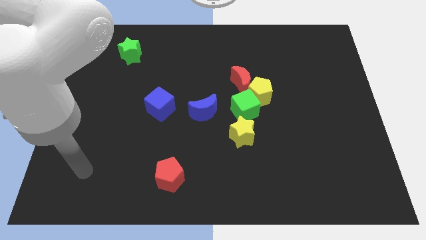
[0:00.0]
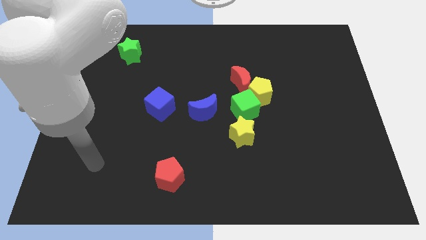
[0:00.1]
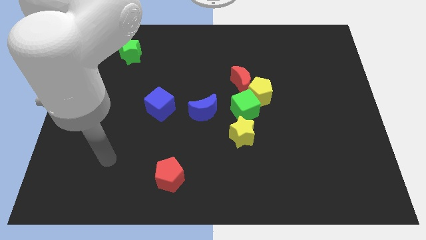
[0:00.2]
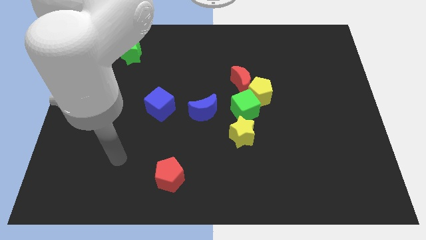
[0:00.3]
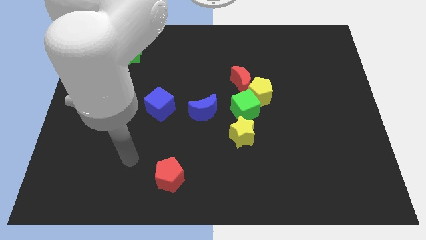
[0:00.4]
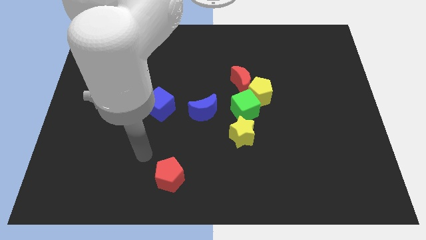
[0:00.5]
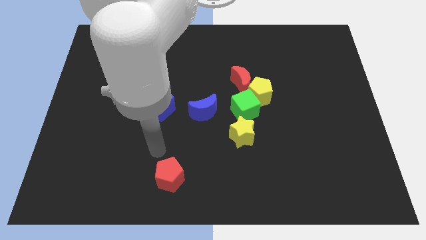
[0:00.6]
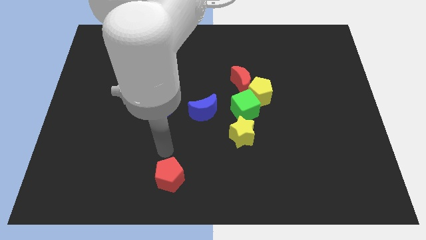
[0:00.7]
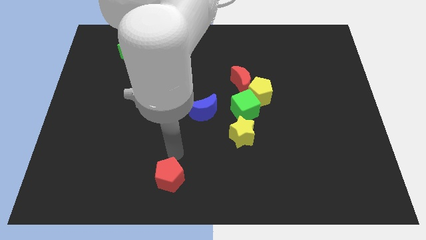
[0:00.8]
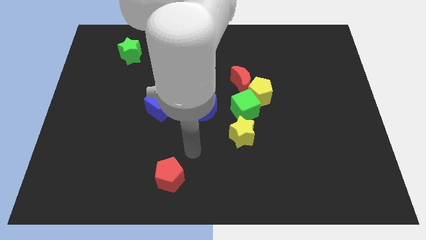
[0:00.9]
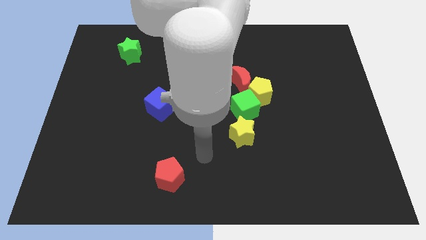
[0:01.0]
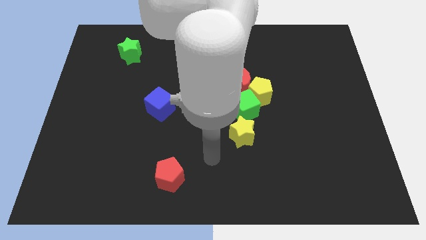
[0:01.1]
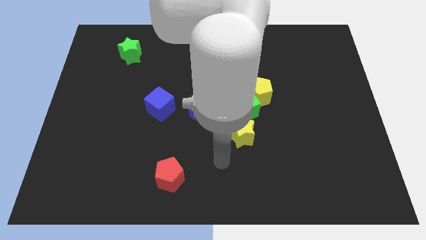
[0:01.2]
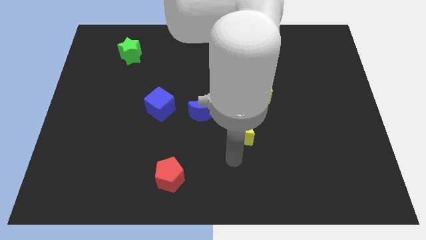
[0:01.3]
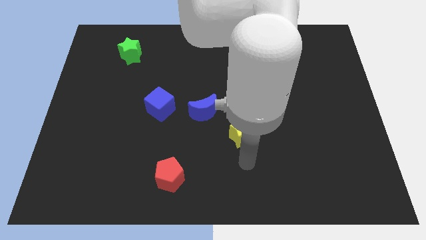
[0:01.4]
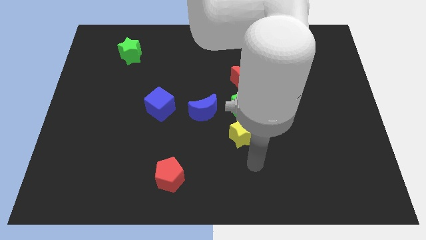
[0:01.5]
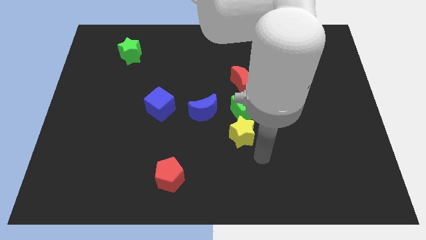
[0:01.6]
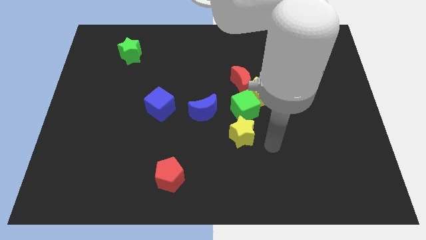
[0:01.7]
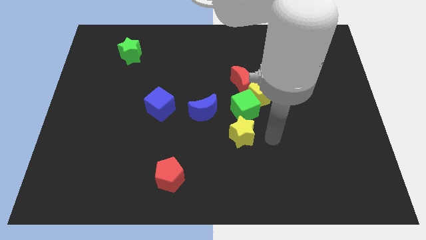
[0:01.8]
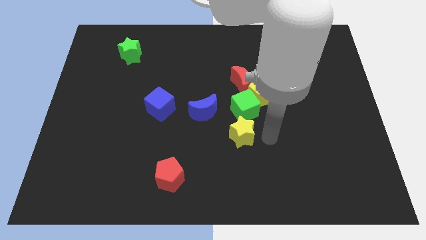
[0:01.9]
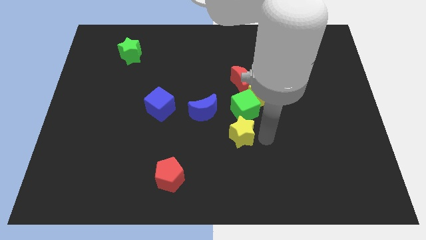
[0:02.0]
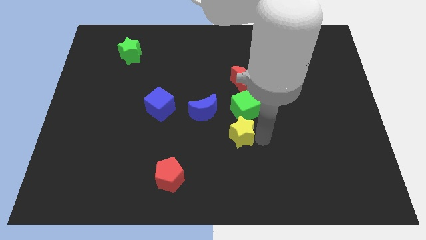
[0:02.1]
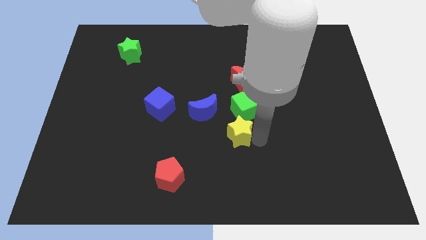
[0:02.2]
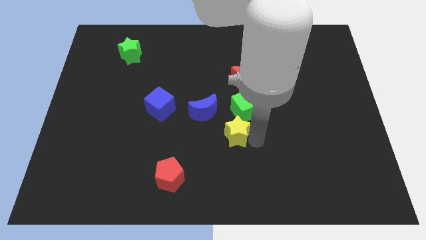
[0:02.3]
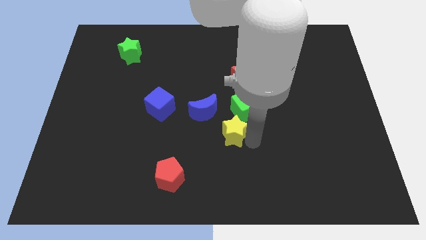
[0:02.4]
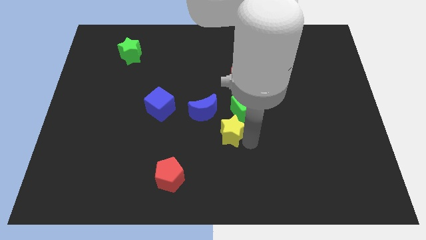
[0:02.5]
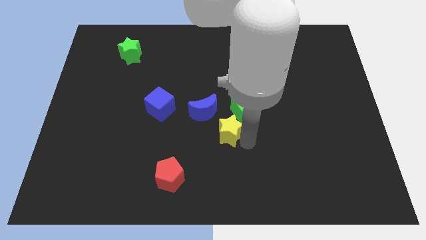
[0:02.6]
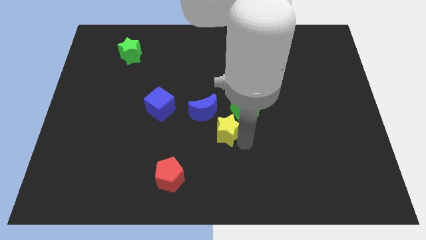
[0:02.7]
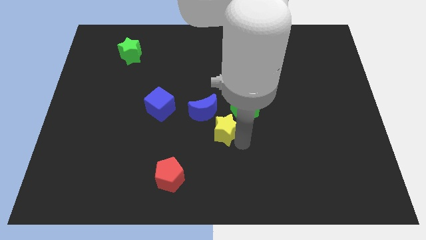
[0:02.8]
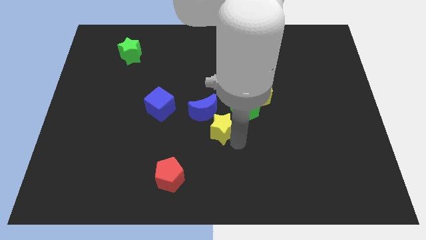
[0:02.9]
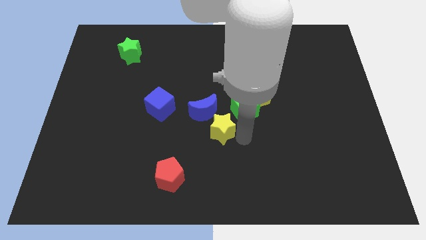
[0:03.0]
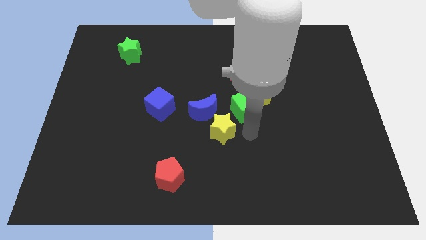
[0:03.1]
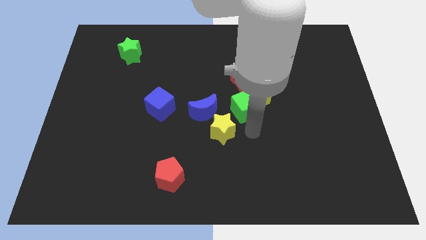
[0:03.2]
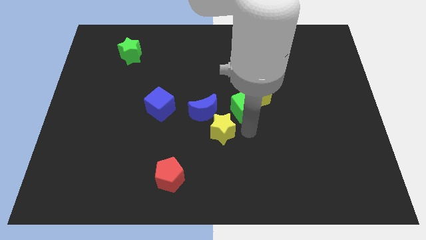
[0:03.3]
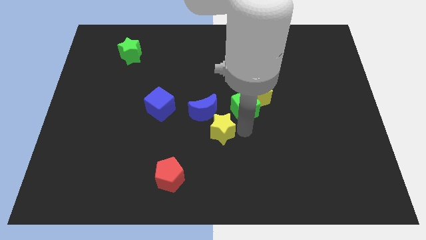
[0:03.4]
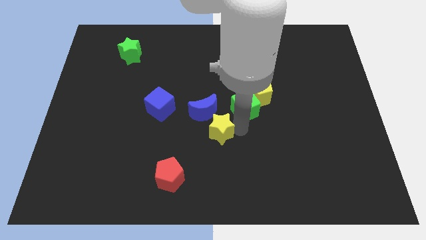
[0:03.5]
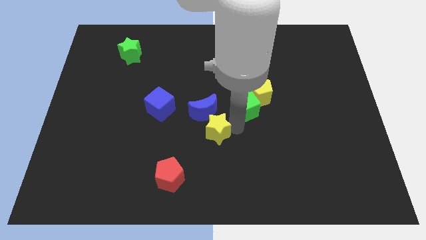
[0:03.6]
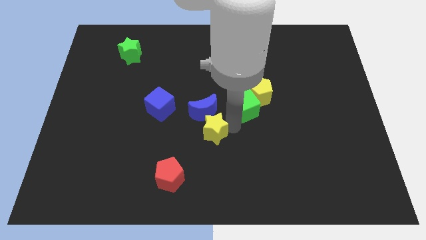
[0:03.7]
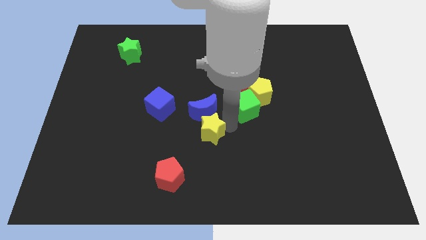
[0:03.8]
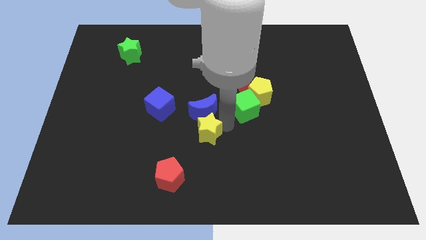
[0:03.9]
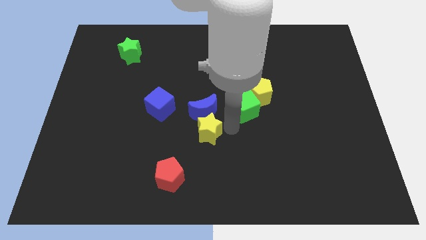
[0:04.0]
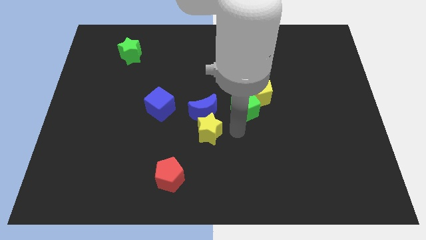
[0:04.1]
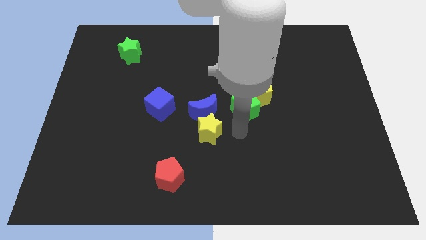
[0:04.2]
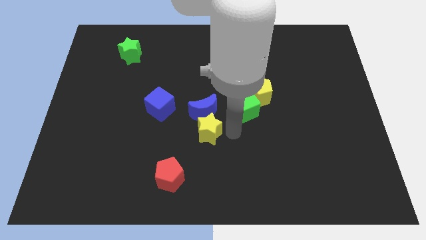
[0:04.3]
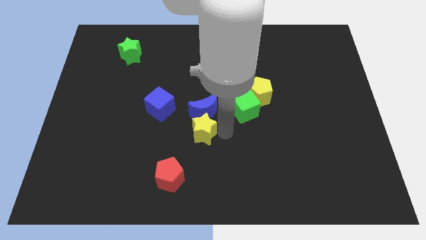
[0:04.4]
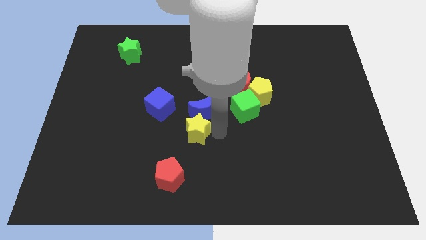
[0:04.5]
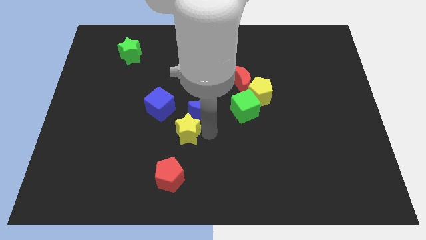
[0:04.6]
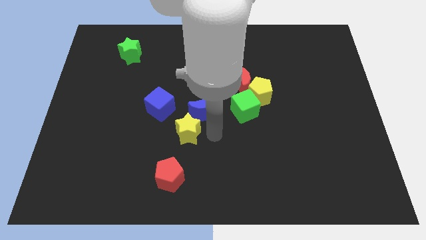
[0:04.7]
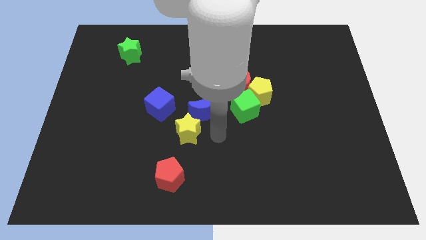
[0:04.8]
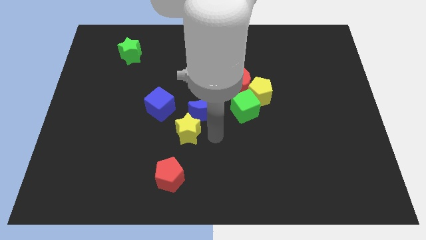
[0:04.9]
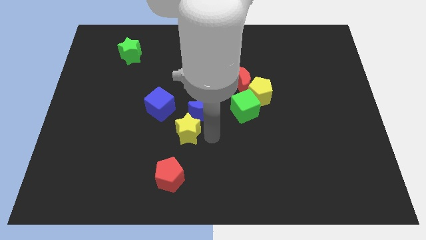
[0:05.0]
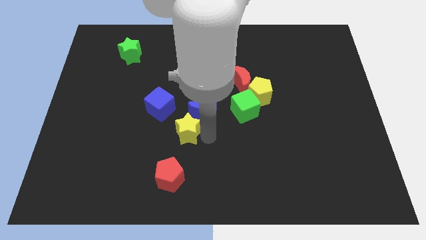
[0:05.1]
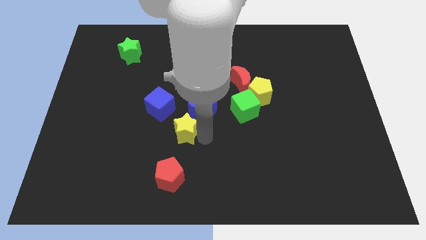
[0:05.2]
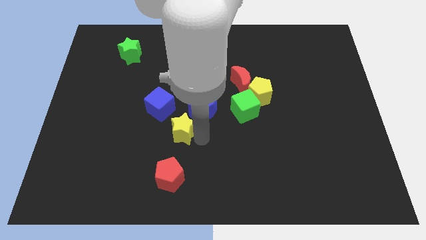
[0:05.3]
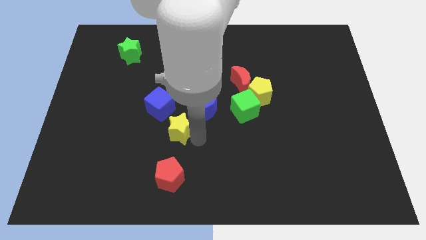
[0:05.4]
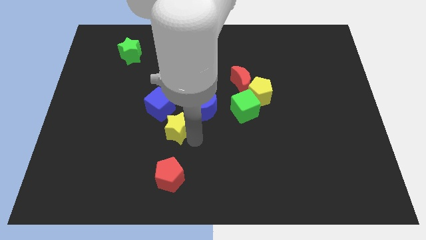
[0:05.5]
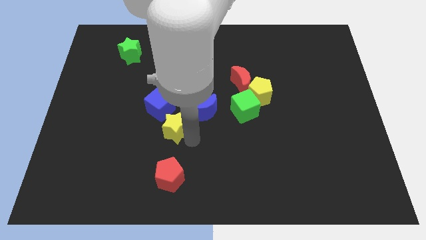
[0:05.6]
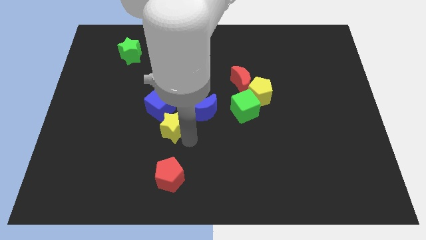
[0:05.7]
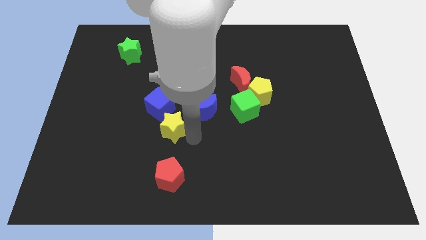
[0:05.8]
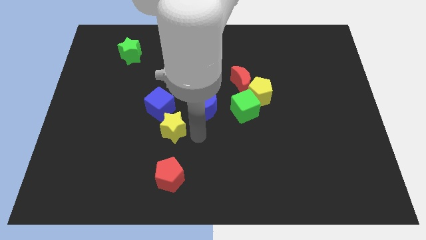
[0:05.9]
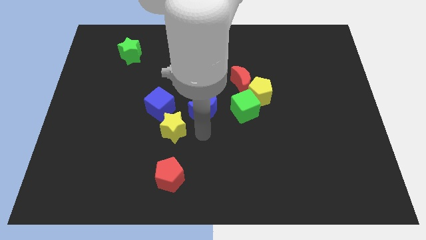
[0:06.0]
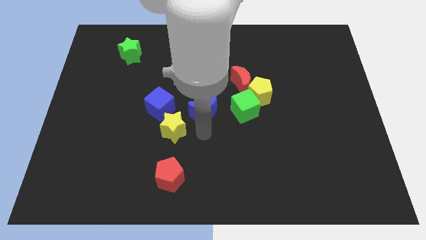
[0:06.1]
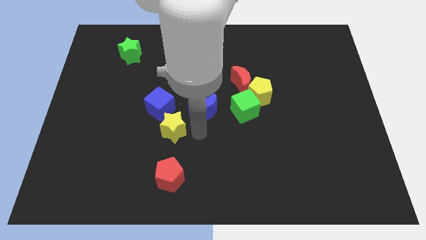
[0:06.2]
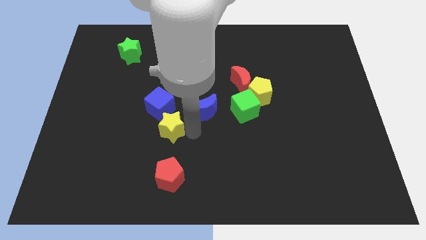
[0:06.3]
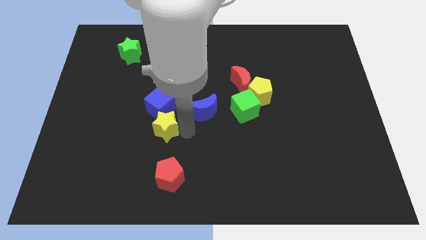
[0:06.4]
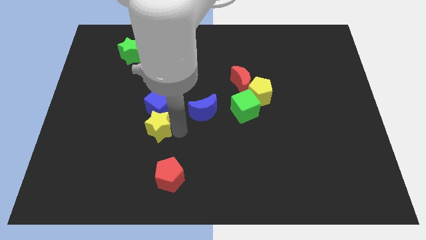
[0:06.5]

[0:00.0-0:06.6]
slide the yellow star to the bottom left of the blue cube
